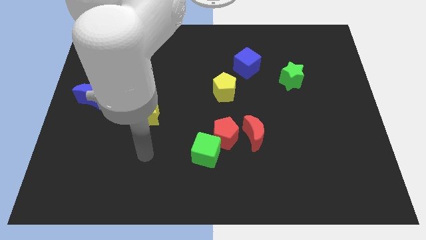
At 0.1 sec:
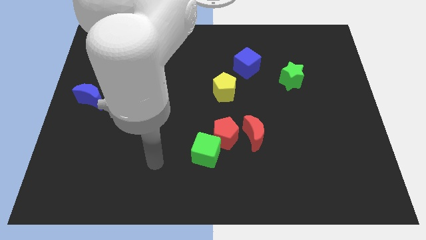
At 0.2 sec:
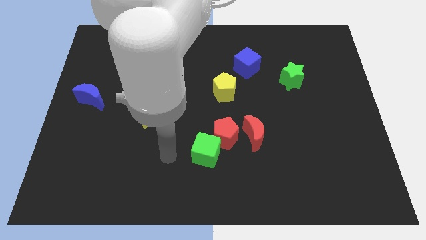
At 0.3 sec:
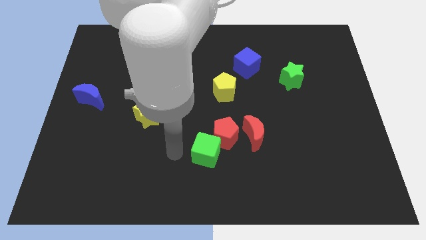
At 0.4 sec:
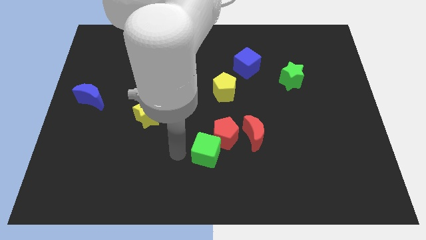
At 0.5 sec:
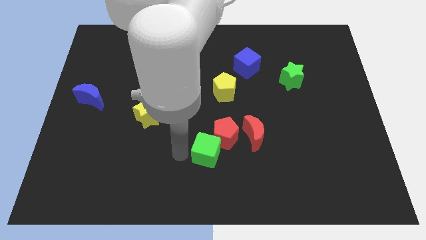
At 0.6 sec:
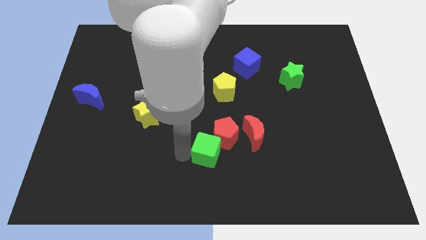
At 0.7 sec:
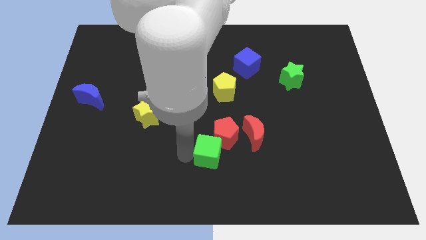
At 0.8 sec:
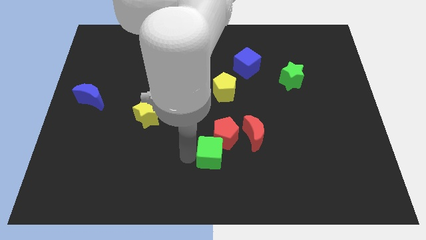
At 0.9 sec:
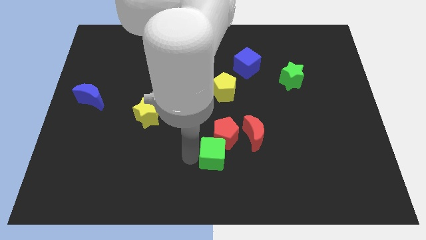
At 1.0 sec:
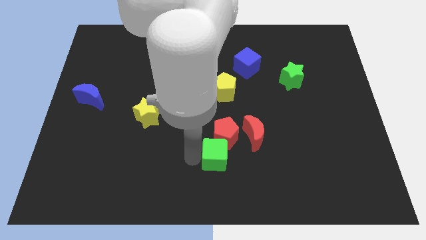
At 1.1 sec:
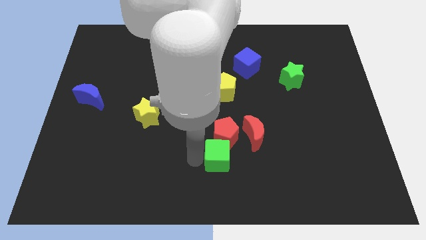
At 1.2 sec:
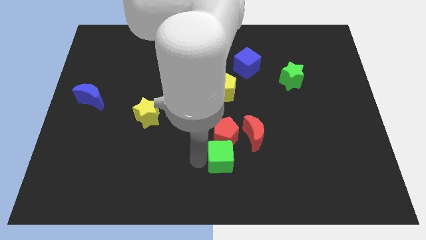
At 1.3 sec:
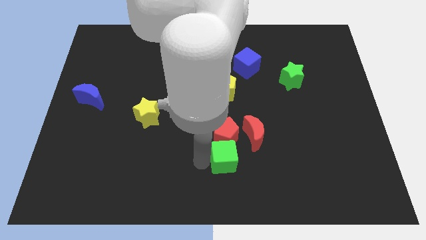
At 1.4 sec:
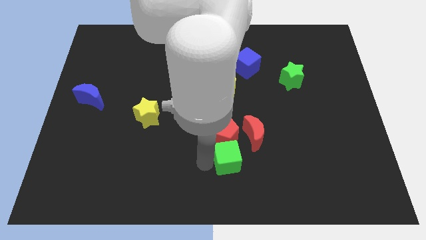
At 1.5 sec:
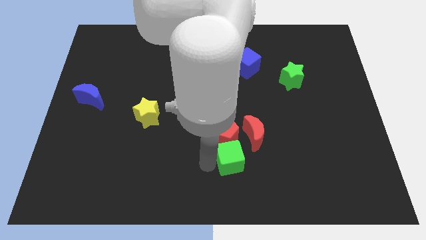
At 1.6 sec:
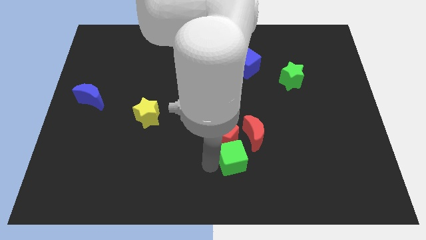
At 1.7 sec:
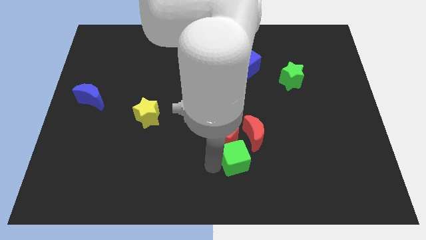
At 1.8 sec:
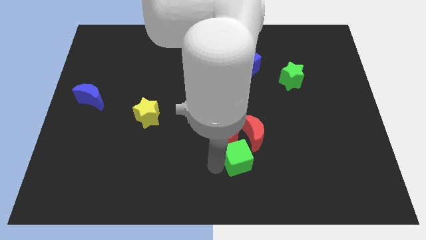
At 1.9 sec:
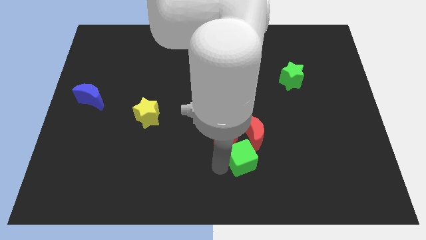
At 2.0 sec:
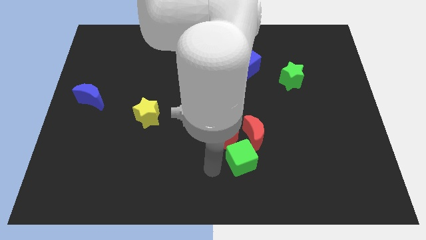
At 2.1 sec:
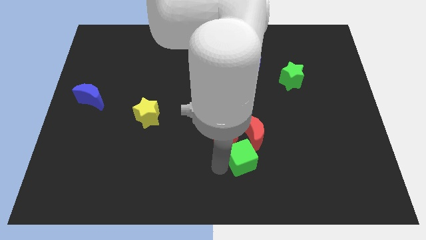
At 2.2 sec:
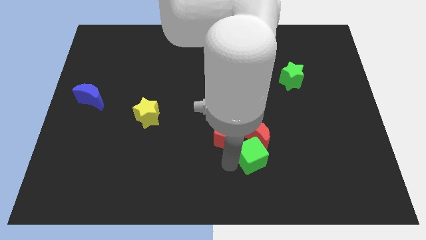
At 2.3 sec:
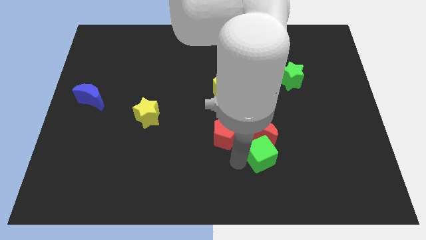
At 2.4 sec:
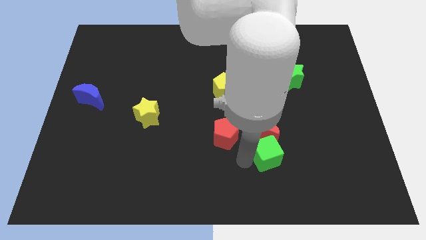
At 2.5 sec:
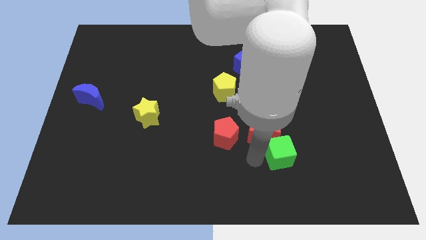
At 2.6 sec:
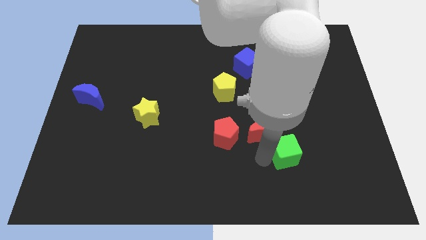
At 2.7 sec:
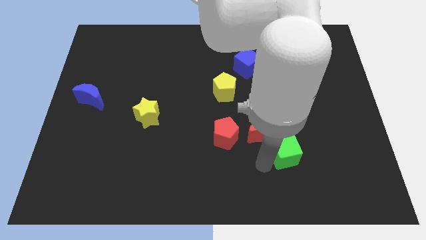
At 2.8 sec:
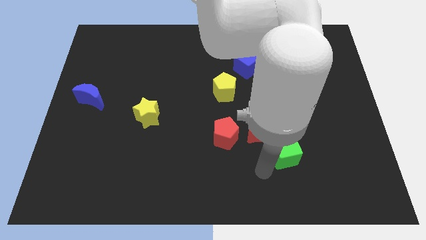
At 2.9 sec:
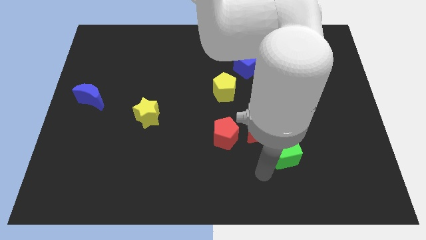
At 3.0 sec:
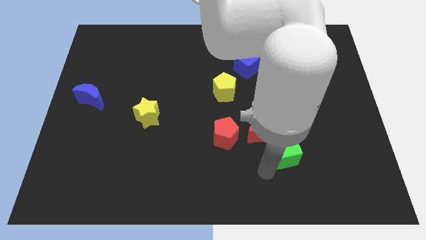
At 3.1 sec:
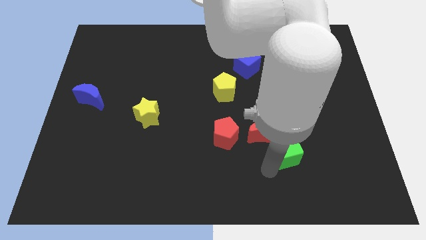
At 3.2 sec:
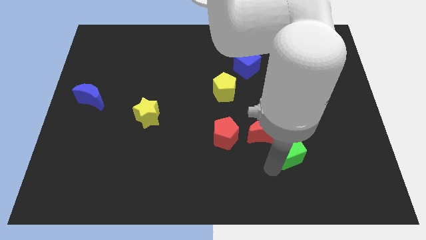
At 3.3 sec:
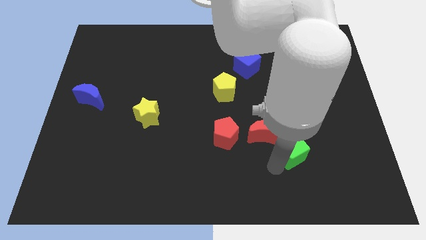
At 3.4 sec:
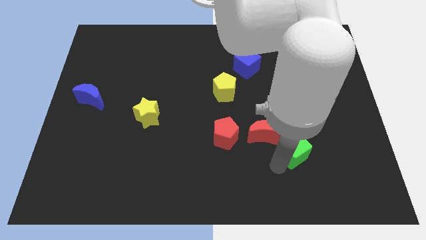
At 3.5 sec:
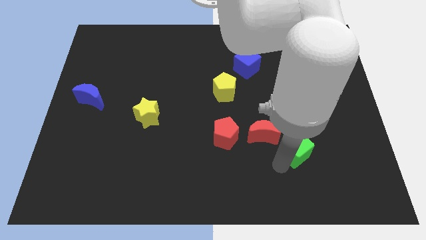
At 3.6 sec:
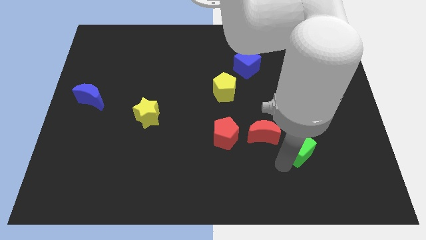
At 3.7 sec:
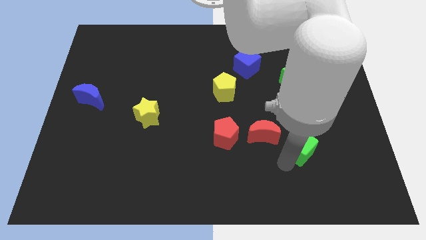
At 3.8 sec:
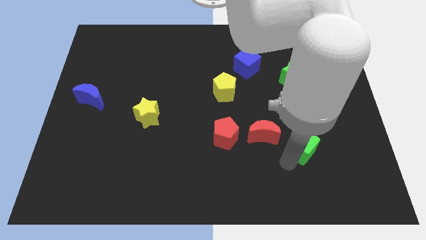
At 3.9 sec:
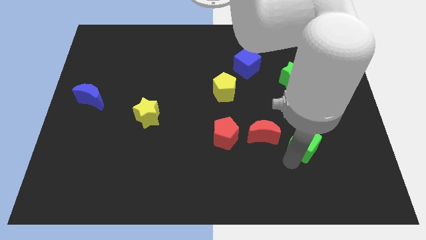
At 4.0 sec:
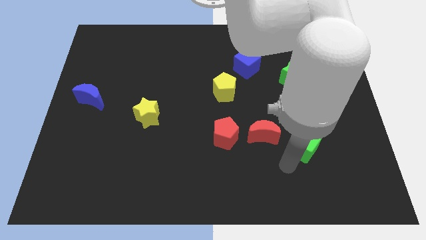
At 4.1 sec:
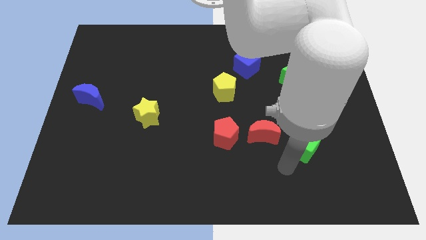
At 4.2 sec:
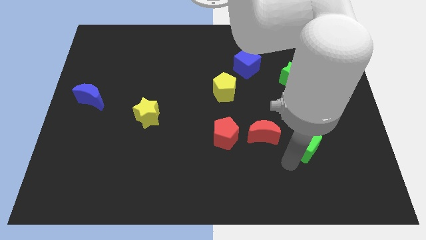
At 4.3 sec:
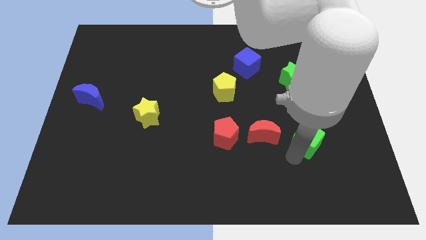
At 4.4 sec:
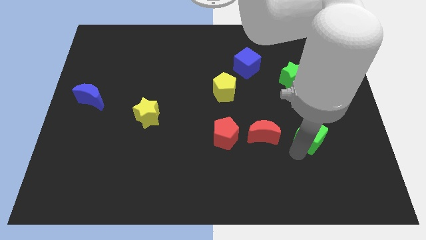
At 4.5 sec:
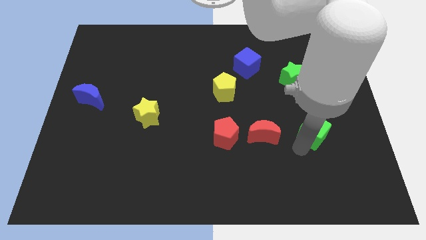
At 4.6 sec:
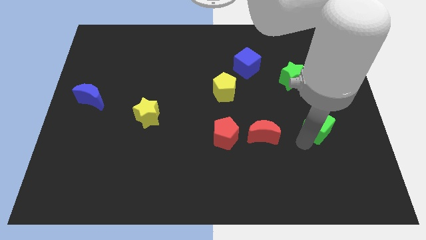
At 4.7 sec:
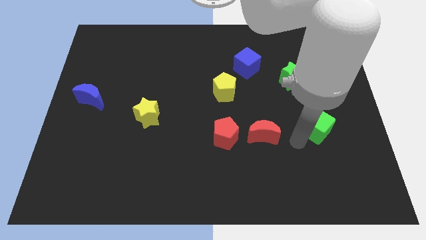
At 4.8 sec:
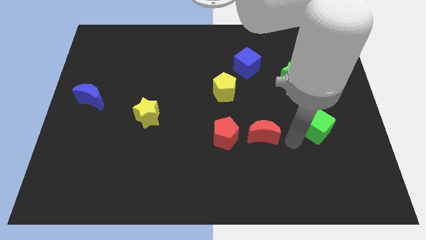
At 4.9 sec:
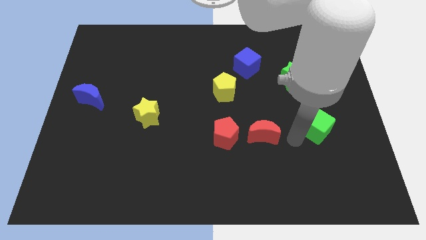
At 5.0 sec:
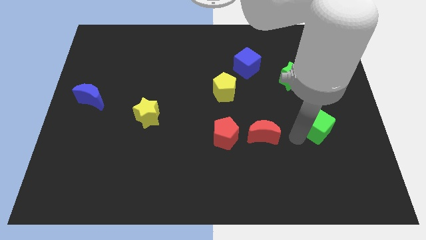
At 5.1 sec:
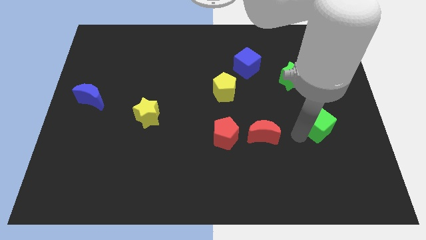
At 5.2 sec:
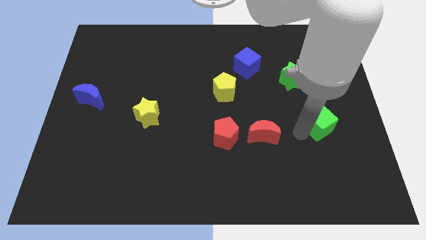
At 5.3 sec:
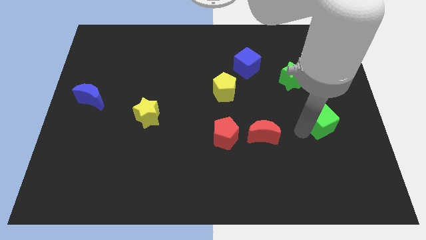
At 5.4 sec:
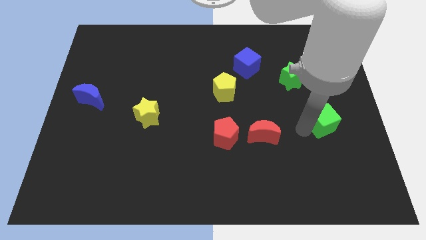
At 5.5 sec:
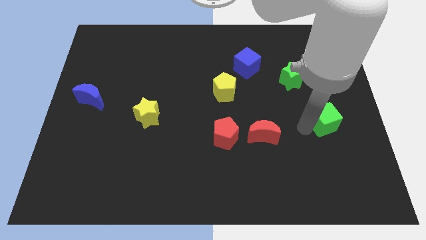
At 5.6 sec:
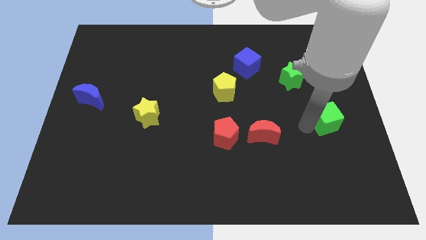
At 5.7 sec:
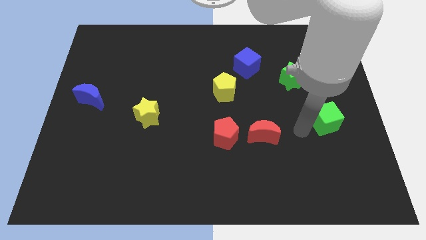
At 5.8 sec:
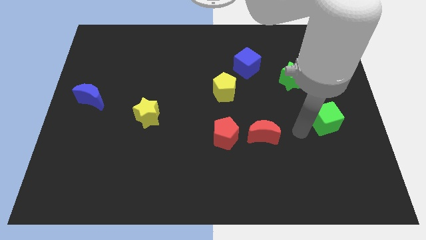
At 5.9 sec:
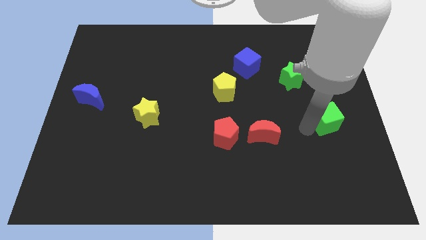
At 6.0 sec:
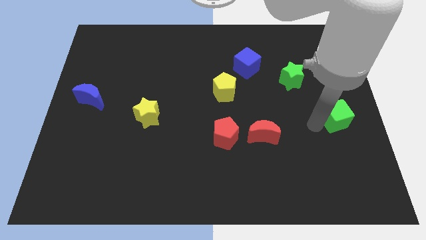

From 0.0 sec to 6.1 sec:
slide the green cube to the right side

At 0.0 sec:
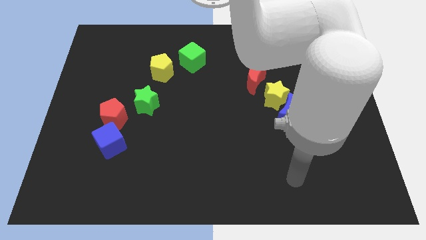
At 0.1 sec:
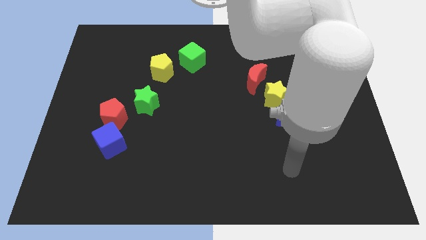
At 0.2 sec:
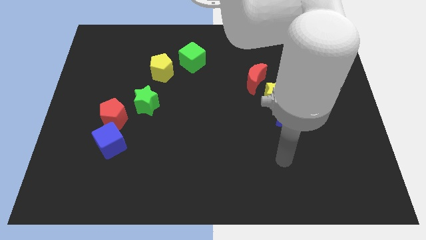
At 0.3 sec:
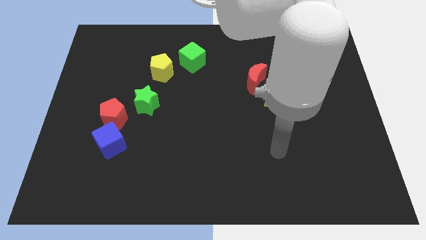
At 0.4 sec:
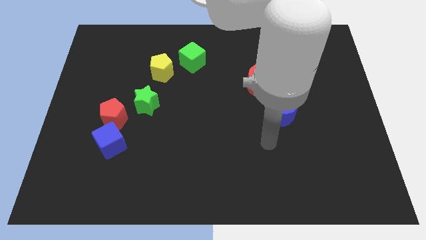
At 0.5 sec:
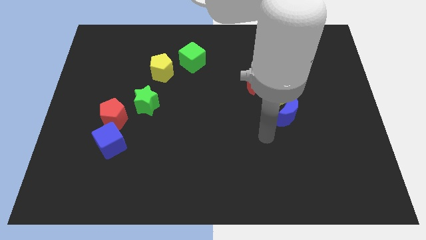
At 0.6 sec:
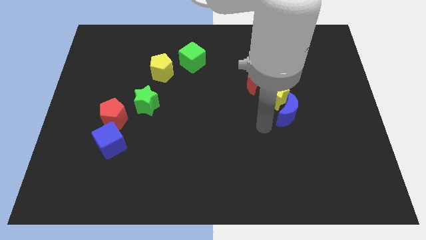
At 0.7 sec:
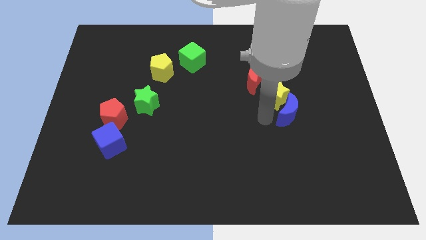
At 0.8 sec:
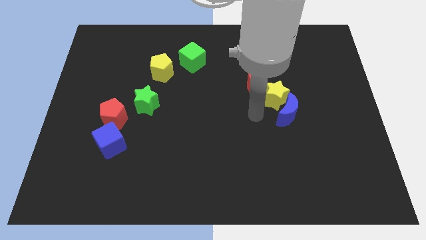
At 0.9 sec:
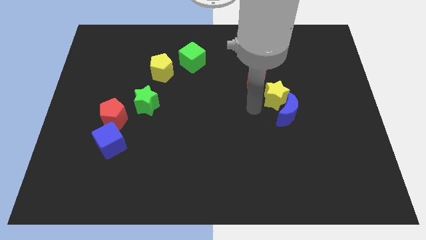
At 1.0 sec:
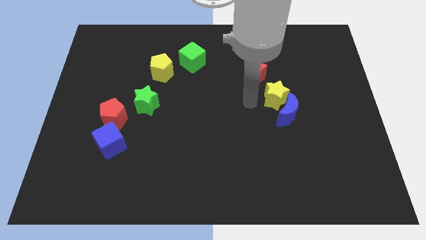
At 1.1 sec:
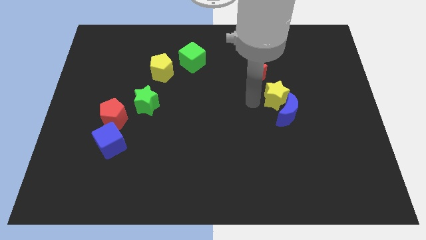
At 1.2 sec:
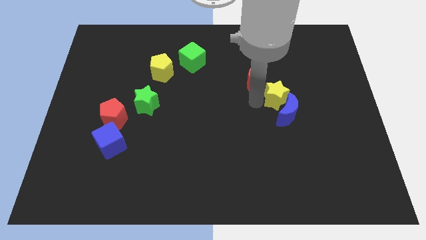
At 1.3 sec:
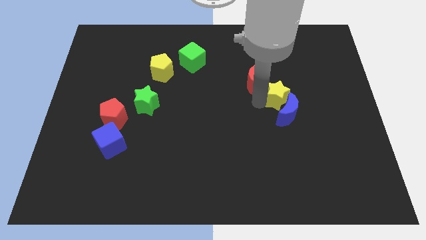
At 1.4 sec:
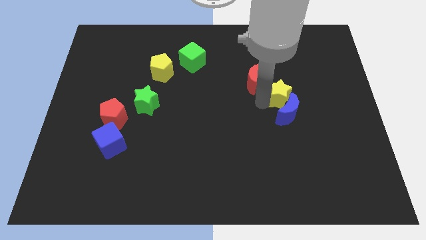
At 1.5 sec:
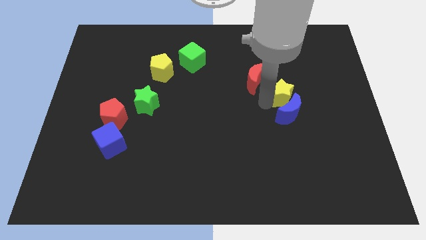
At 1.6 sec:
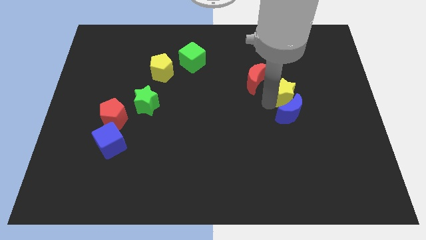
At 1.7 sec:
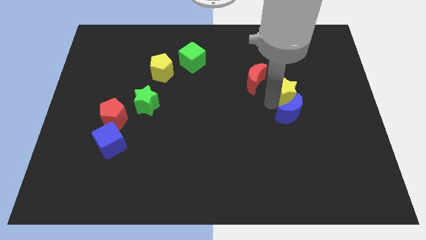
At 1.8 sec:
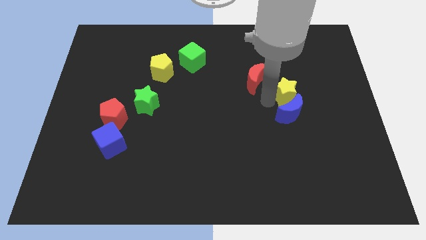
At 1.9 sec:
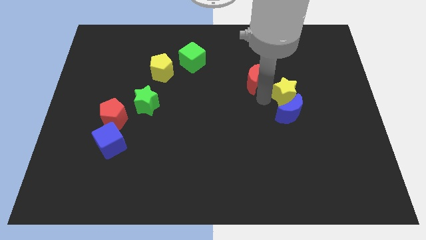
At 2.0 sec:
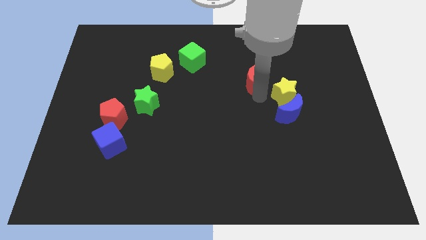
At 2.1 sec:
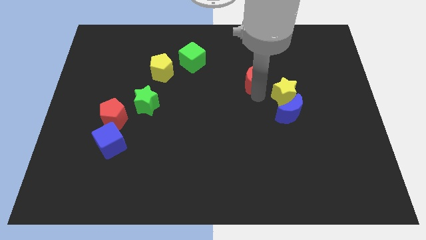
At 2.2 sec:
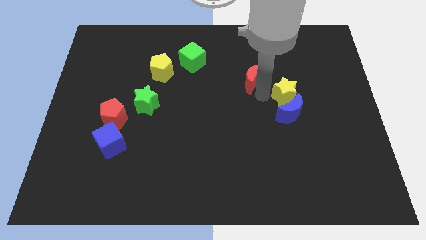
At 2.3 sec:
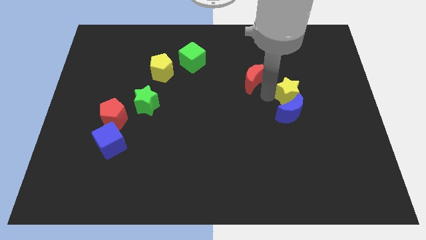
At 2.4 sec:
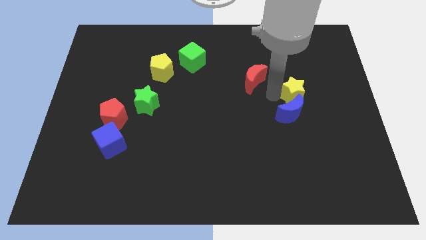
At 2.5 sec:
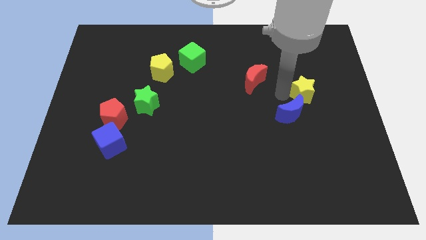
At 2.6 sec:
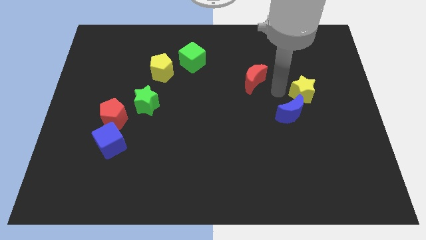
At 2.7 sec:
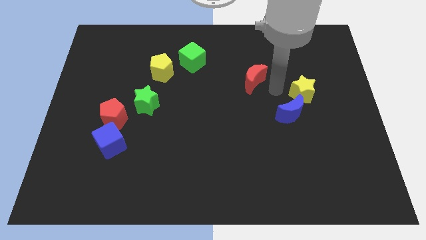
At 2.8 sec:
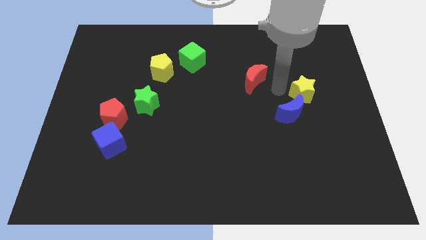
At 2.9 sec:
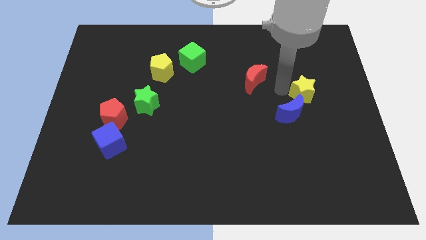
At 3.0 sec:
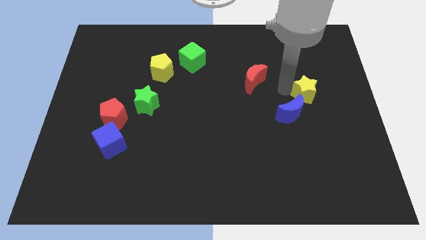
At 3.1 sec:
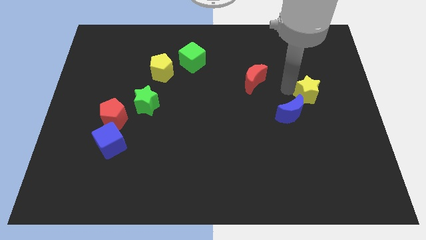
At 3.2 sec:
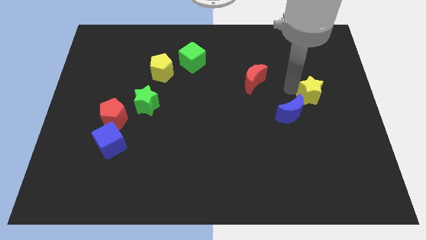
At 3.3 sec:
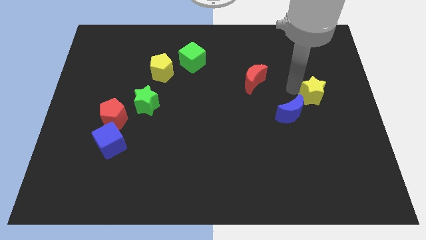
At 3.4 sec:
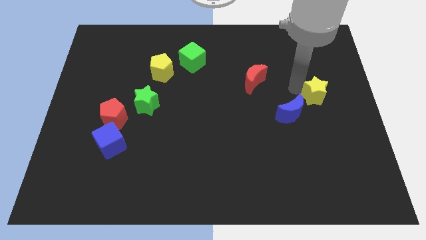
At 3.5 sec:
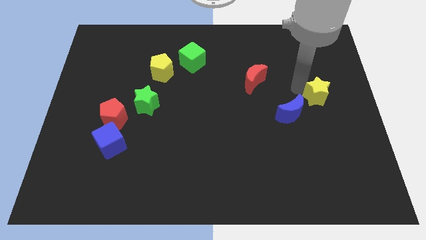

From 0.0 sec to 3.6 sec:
push the yellow star to the center right
